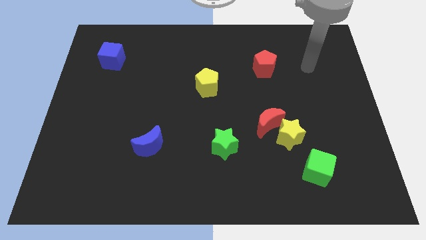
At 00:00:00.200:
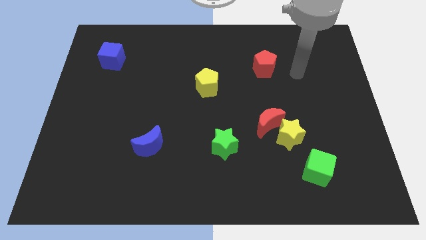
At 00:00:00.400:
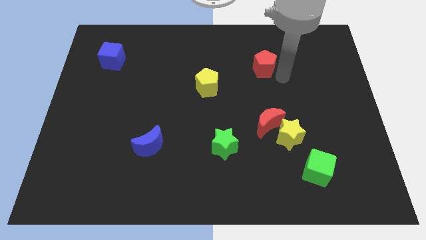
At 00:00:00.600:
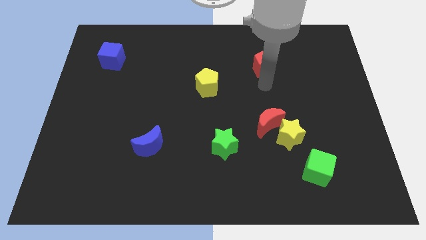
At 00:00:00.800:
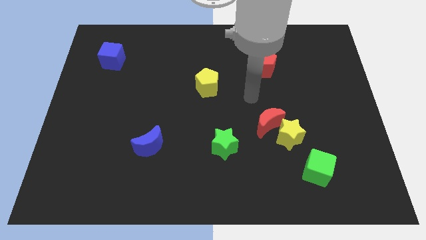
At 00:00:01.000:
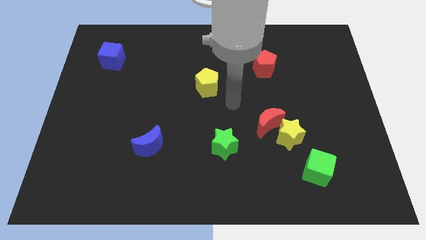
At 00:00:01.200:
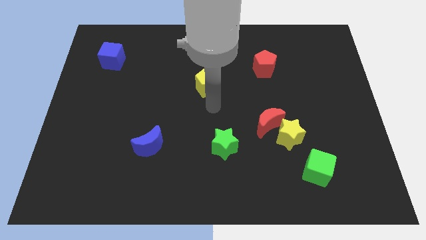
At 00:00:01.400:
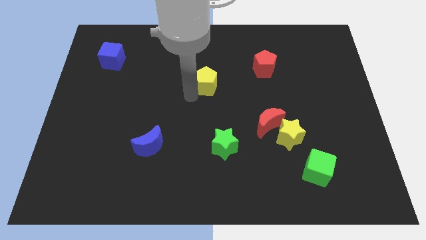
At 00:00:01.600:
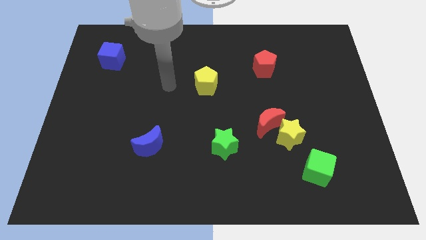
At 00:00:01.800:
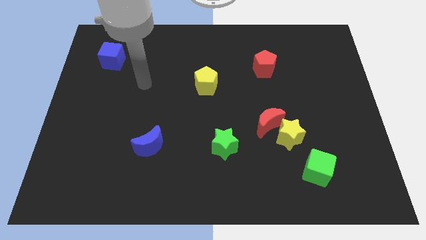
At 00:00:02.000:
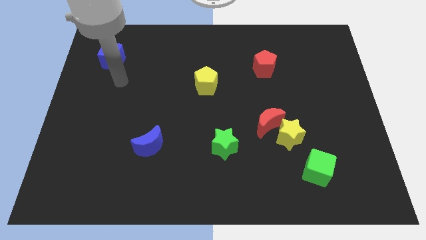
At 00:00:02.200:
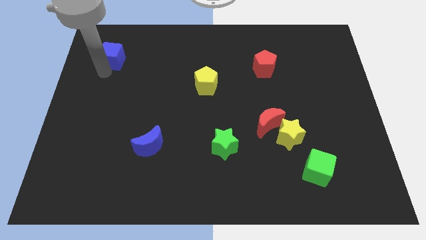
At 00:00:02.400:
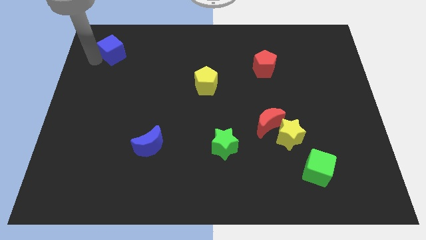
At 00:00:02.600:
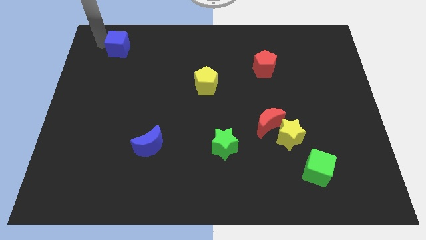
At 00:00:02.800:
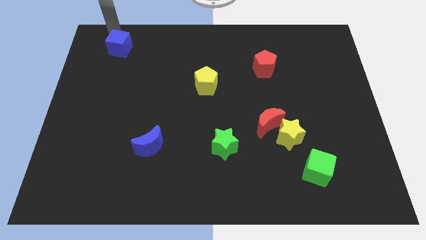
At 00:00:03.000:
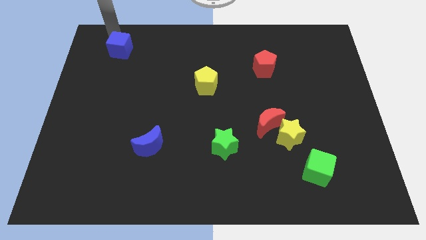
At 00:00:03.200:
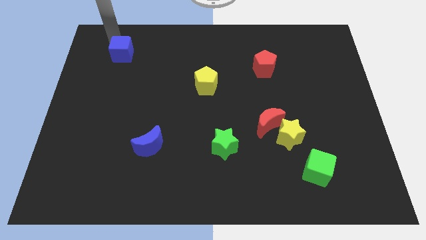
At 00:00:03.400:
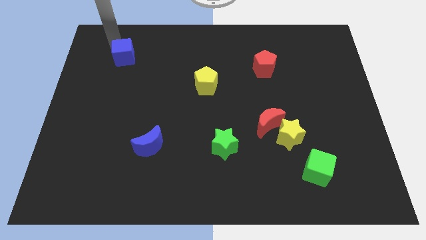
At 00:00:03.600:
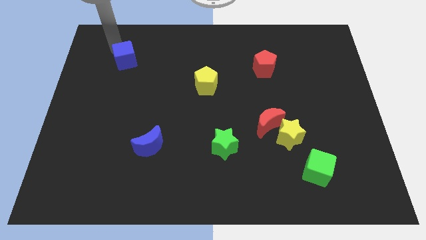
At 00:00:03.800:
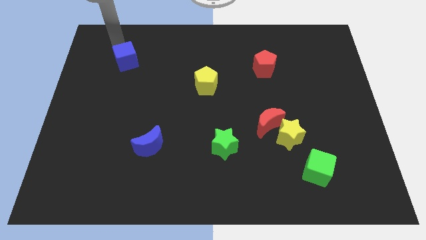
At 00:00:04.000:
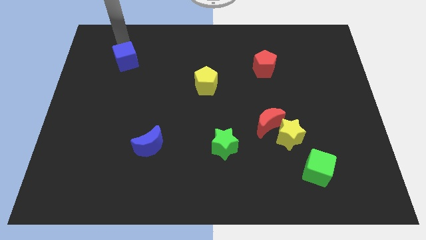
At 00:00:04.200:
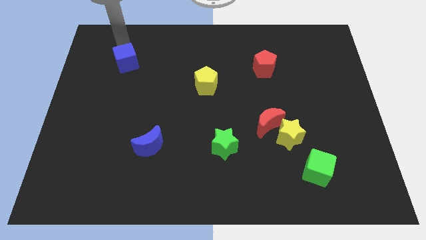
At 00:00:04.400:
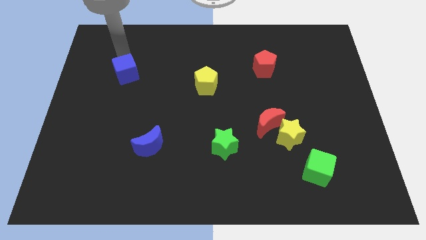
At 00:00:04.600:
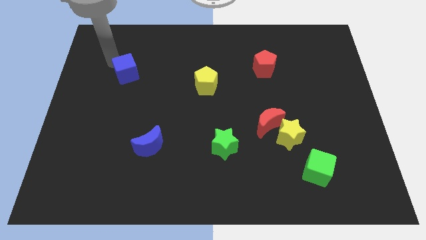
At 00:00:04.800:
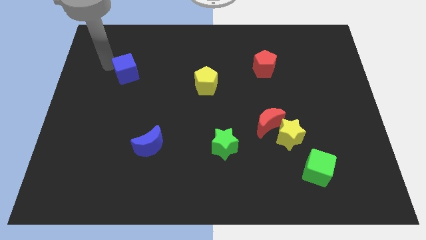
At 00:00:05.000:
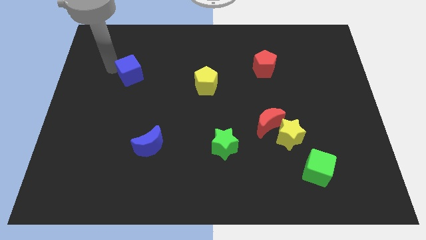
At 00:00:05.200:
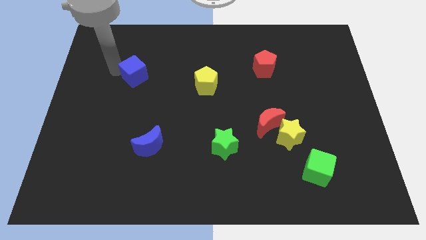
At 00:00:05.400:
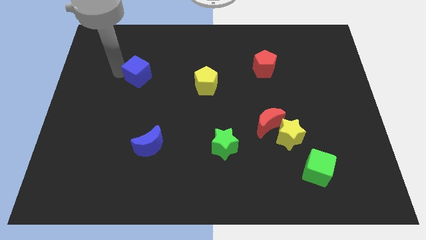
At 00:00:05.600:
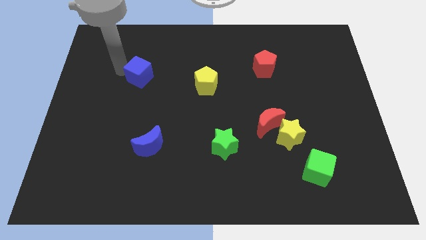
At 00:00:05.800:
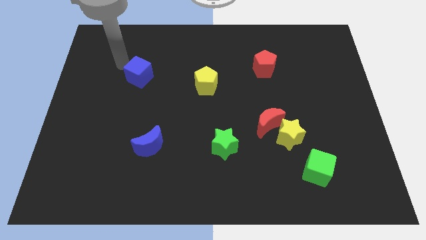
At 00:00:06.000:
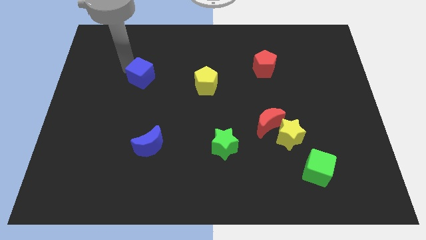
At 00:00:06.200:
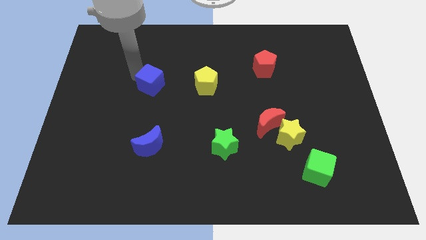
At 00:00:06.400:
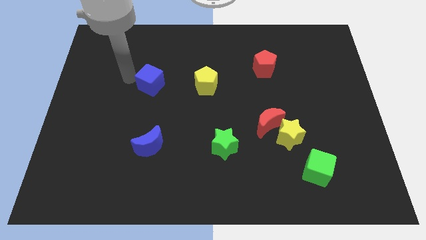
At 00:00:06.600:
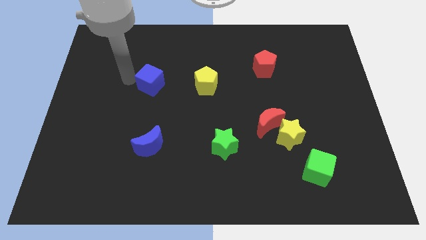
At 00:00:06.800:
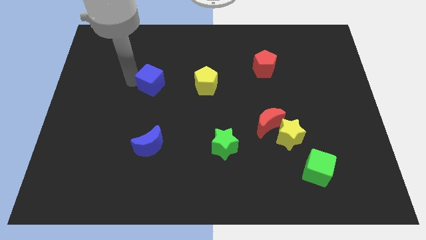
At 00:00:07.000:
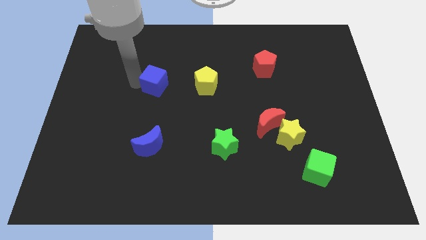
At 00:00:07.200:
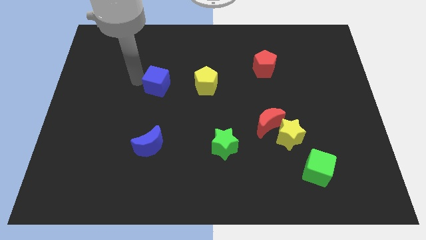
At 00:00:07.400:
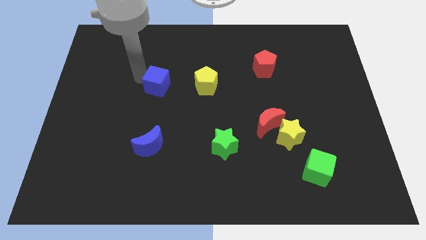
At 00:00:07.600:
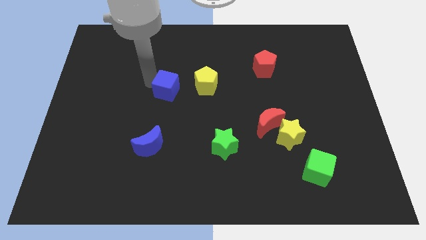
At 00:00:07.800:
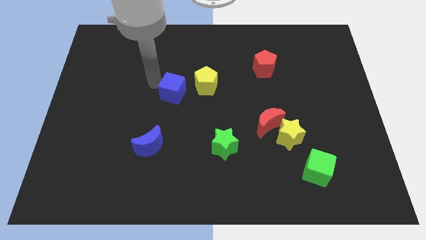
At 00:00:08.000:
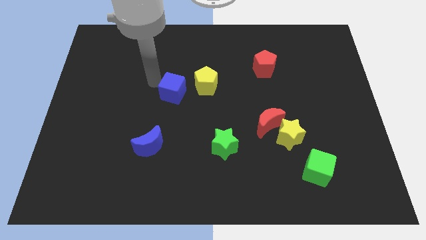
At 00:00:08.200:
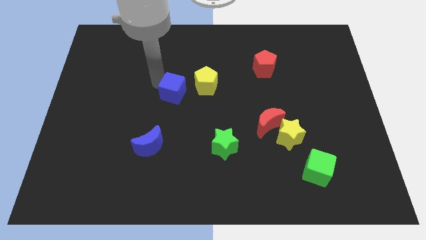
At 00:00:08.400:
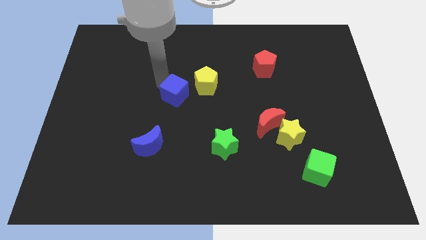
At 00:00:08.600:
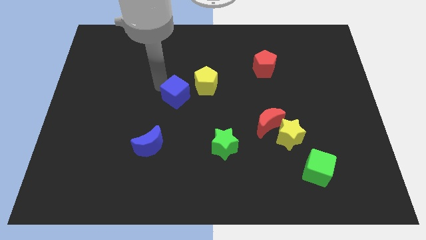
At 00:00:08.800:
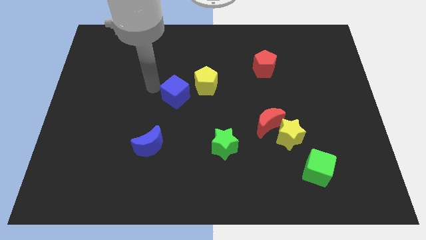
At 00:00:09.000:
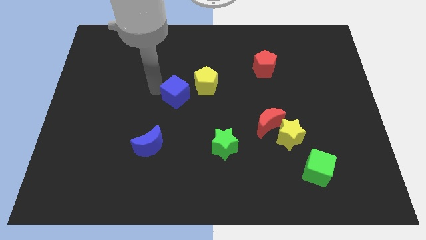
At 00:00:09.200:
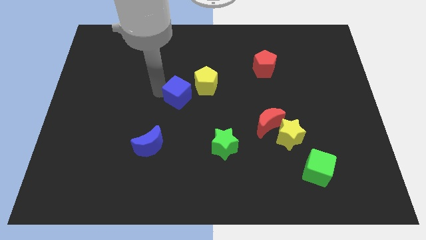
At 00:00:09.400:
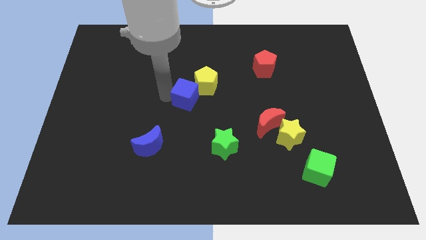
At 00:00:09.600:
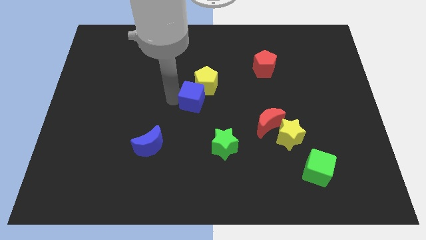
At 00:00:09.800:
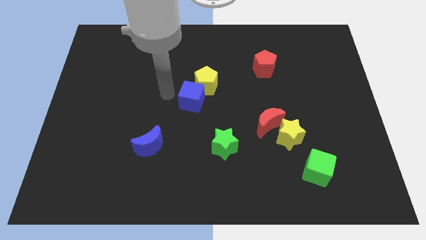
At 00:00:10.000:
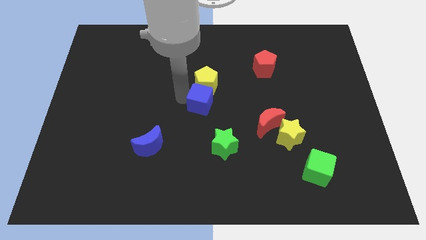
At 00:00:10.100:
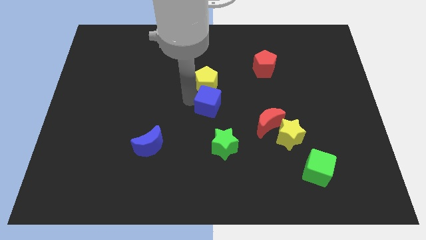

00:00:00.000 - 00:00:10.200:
push the blue cube to the top side of the green star

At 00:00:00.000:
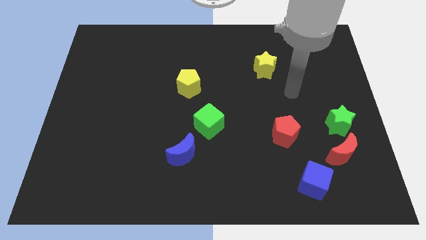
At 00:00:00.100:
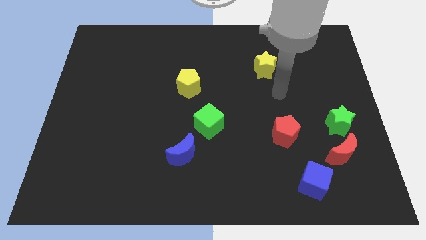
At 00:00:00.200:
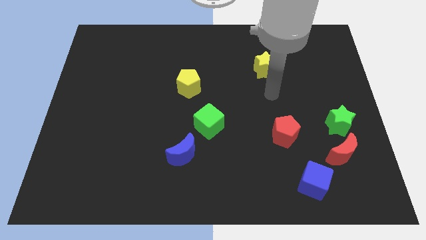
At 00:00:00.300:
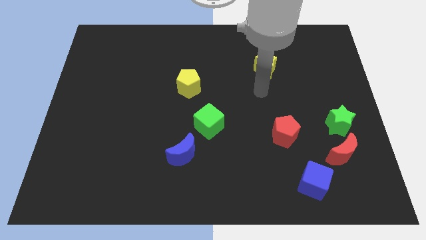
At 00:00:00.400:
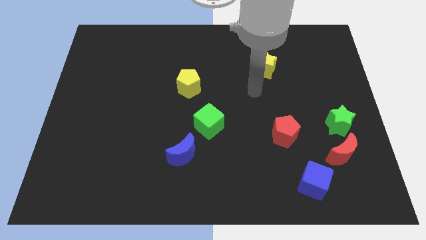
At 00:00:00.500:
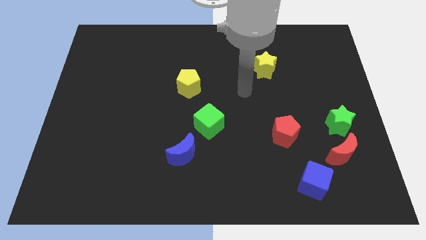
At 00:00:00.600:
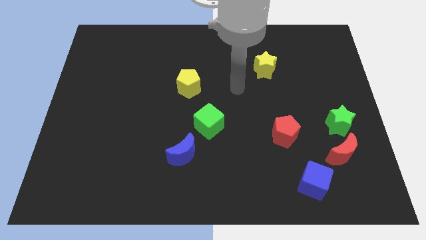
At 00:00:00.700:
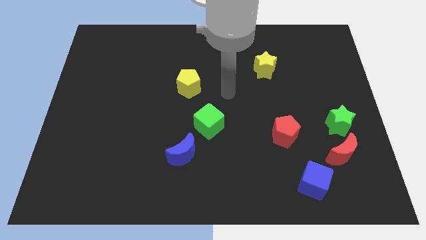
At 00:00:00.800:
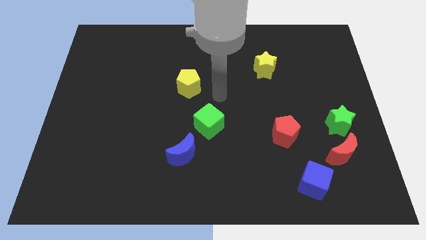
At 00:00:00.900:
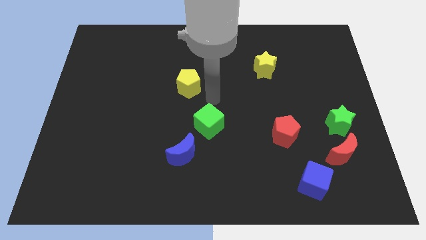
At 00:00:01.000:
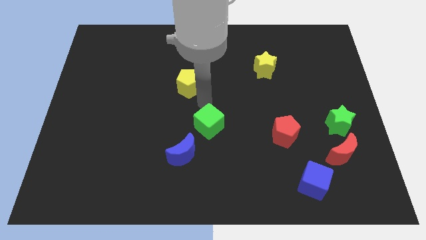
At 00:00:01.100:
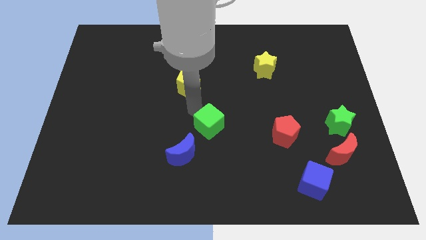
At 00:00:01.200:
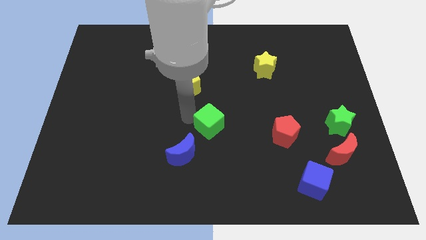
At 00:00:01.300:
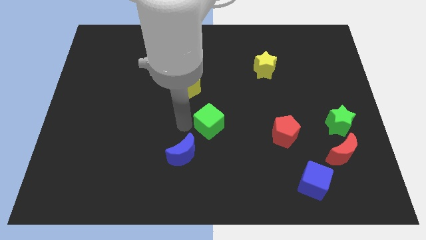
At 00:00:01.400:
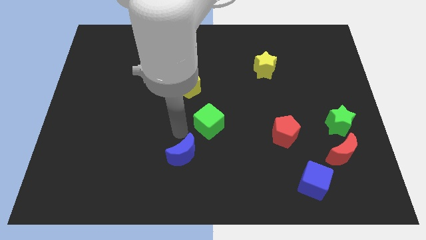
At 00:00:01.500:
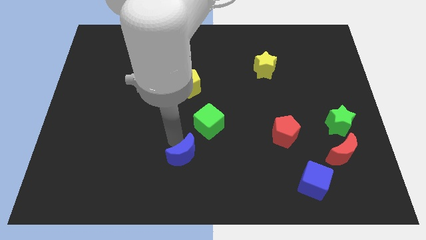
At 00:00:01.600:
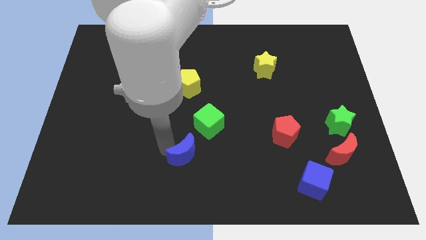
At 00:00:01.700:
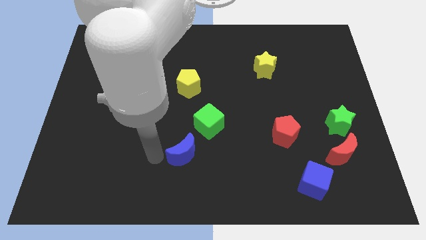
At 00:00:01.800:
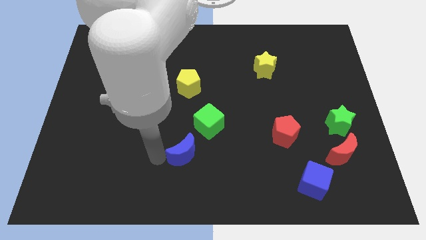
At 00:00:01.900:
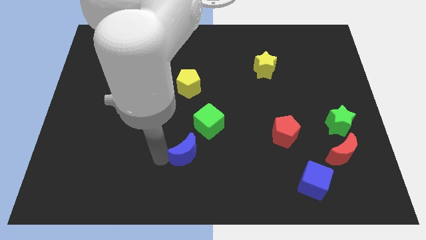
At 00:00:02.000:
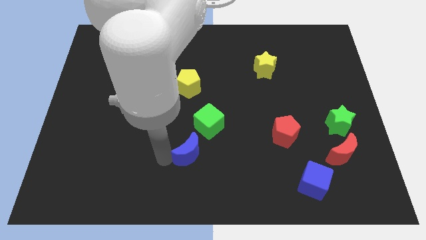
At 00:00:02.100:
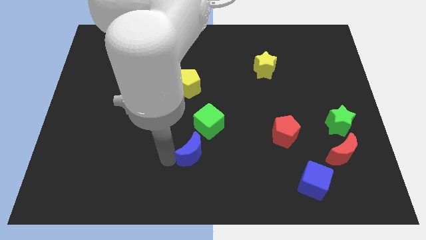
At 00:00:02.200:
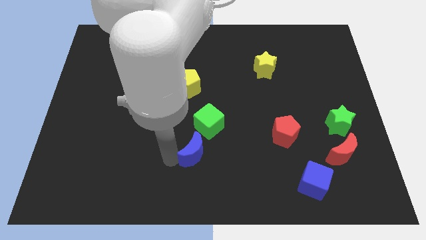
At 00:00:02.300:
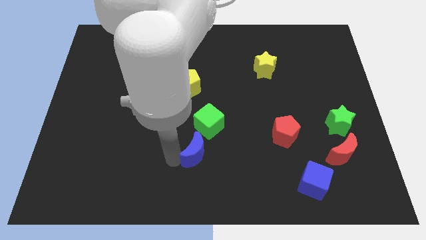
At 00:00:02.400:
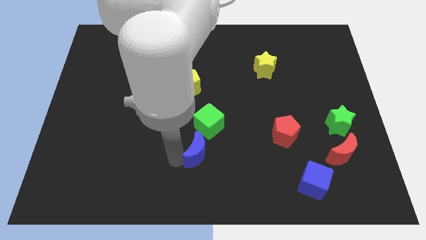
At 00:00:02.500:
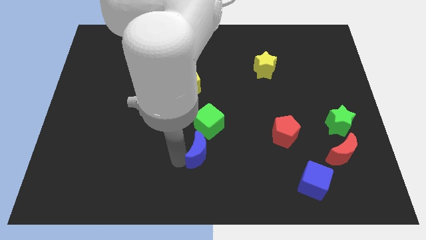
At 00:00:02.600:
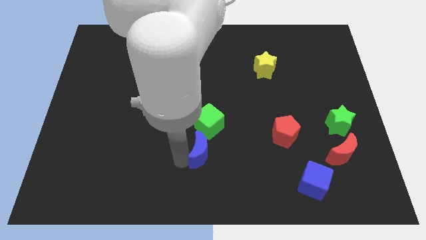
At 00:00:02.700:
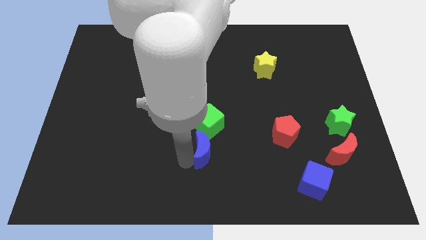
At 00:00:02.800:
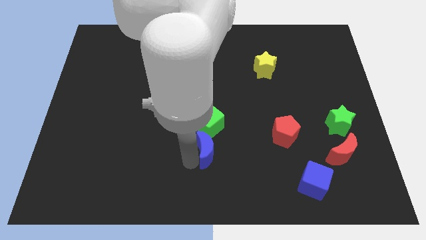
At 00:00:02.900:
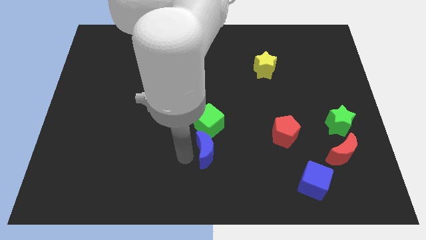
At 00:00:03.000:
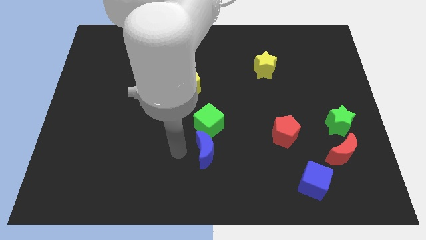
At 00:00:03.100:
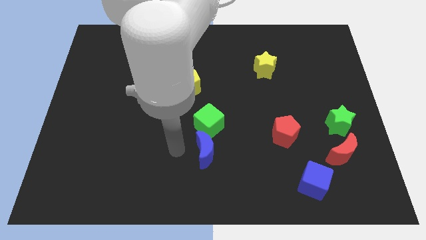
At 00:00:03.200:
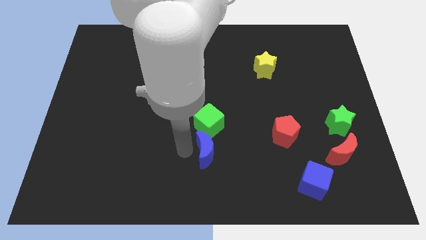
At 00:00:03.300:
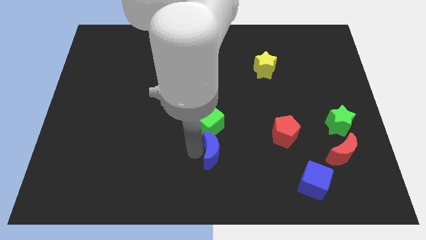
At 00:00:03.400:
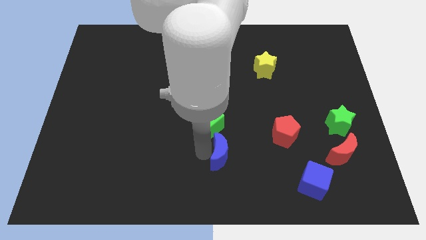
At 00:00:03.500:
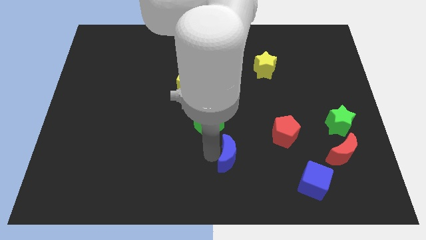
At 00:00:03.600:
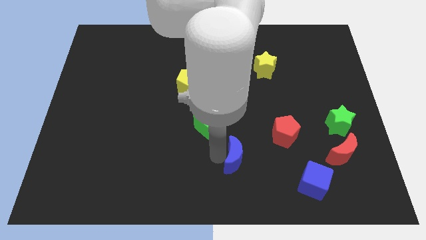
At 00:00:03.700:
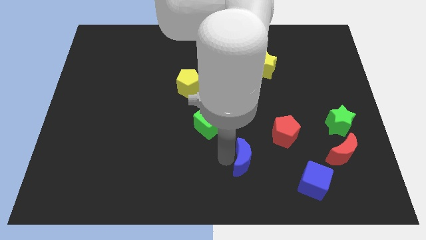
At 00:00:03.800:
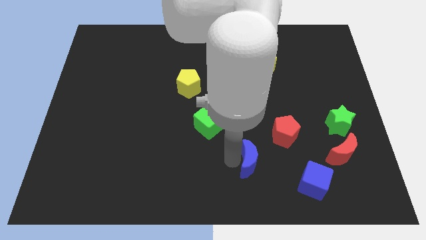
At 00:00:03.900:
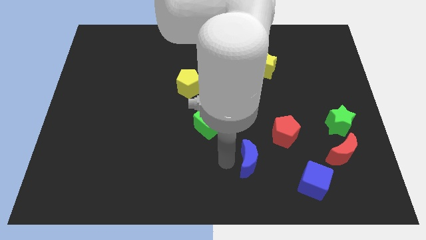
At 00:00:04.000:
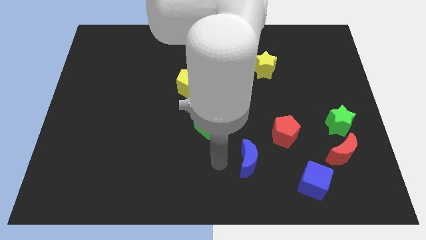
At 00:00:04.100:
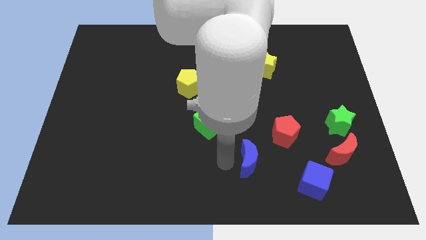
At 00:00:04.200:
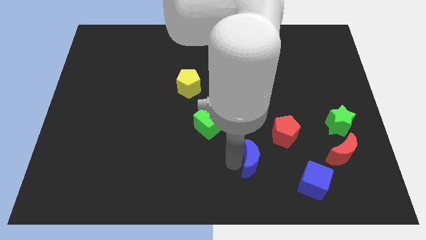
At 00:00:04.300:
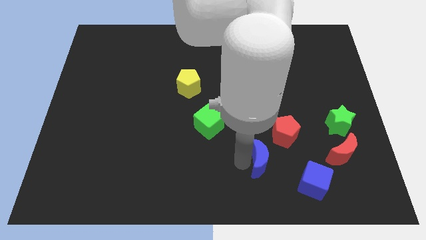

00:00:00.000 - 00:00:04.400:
put the blue moon to the top left of the blue cube
